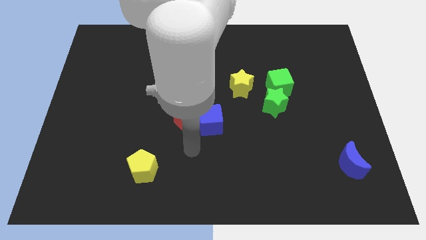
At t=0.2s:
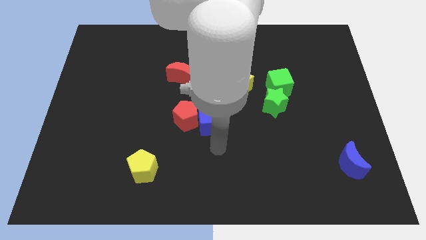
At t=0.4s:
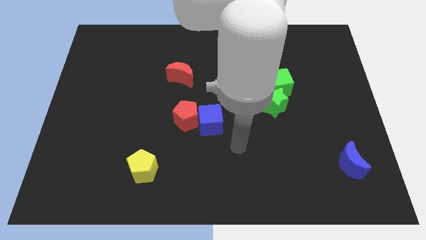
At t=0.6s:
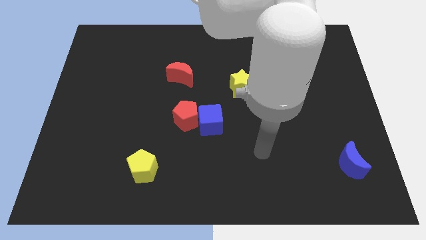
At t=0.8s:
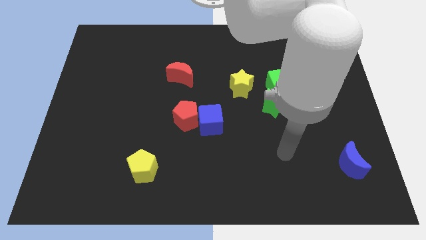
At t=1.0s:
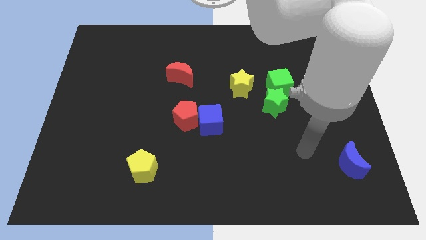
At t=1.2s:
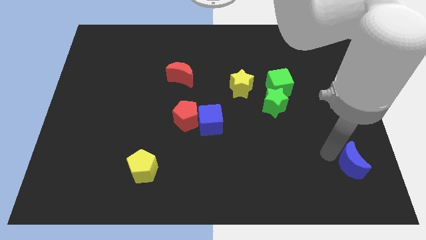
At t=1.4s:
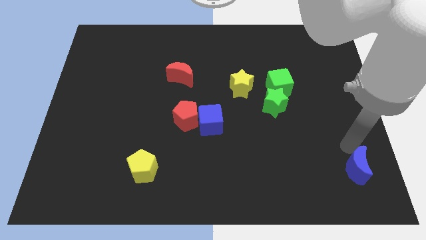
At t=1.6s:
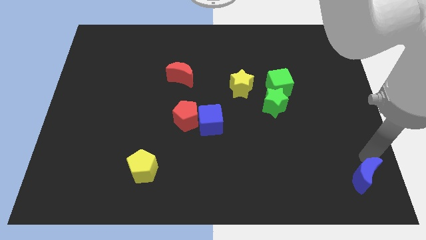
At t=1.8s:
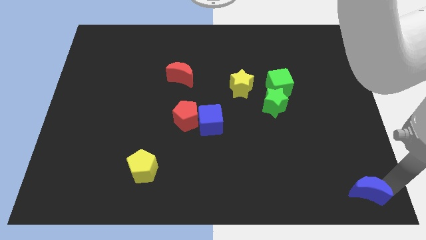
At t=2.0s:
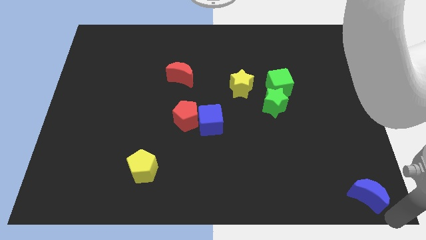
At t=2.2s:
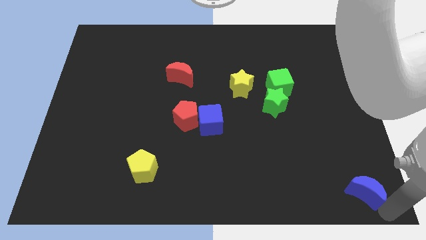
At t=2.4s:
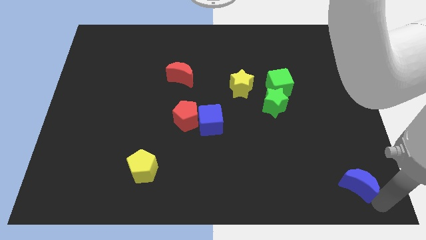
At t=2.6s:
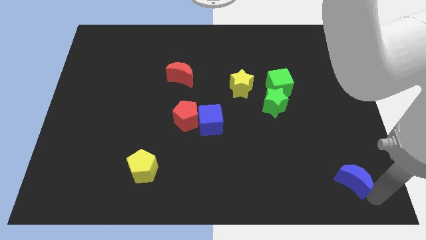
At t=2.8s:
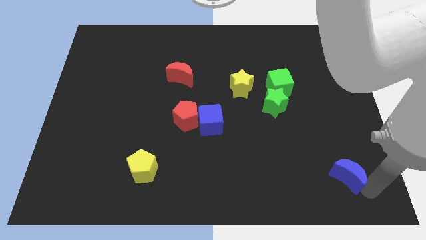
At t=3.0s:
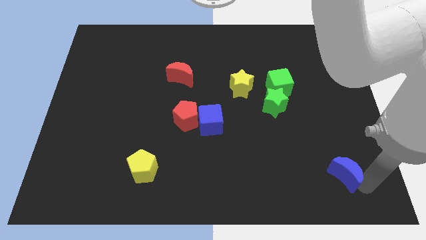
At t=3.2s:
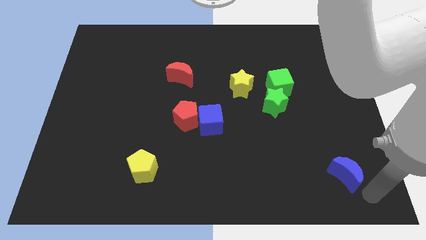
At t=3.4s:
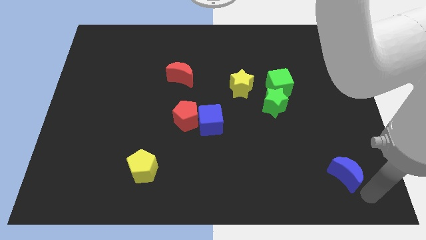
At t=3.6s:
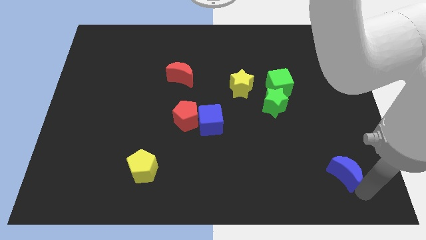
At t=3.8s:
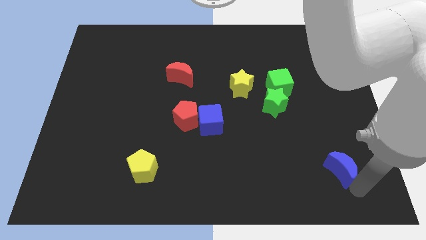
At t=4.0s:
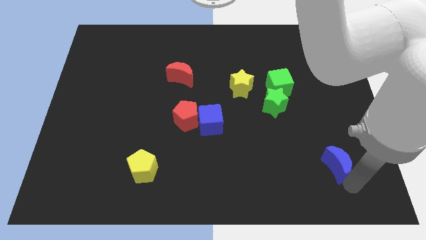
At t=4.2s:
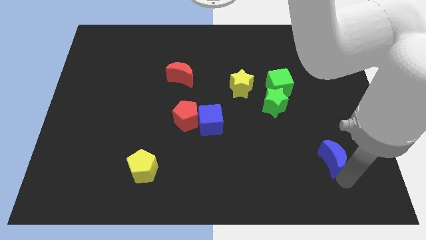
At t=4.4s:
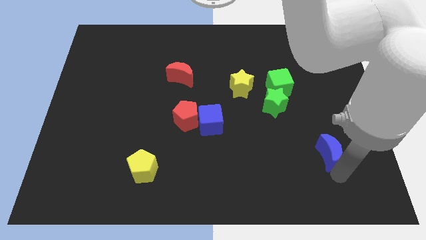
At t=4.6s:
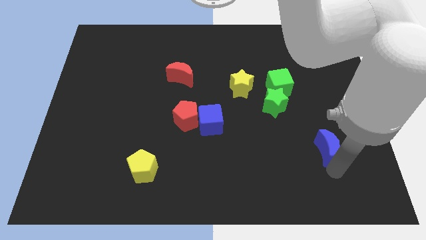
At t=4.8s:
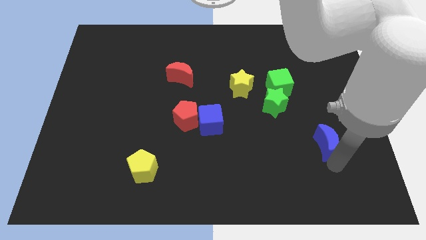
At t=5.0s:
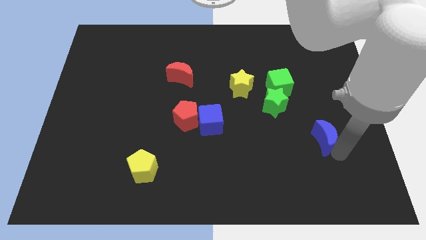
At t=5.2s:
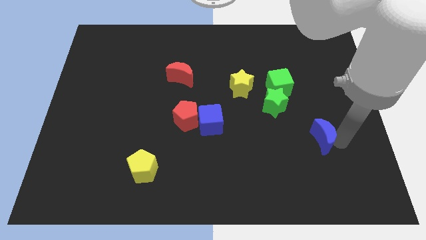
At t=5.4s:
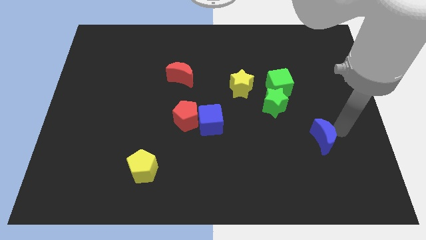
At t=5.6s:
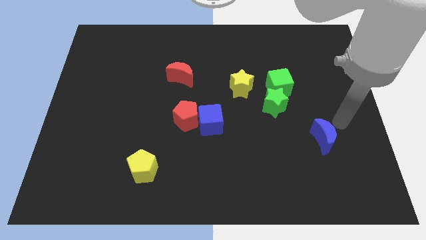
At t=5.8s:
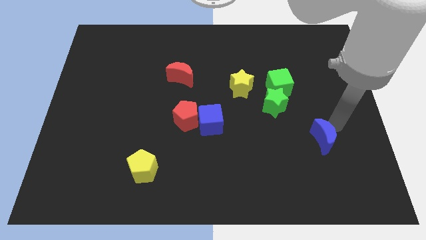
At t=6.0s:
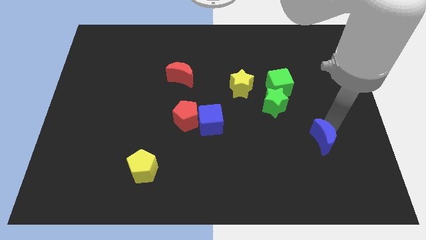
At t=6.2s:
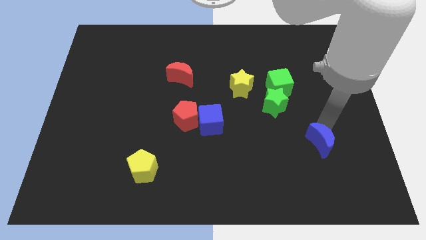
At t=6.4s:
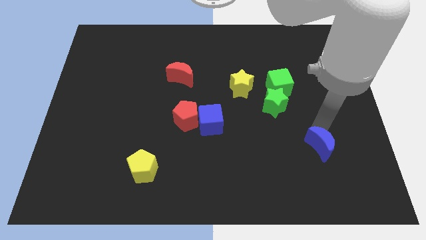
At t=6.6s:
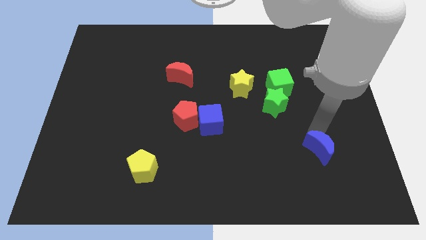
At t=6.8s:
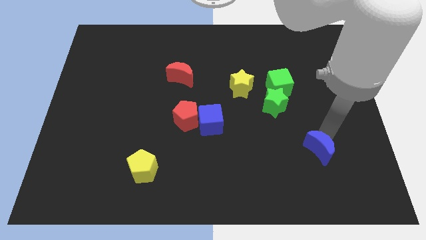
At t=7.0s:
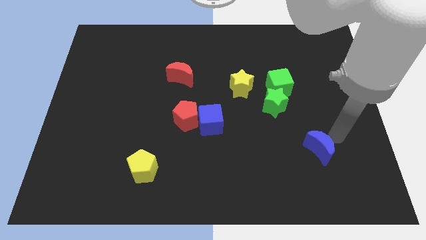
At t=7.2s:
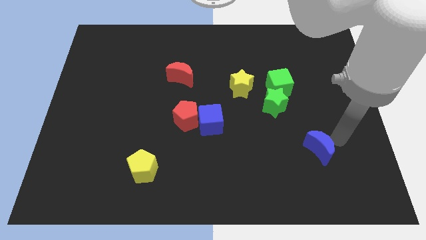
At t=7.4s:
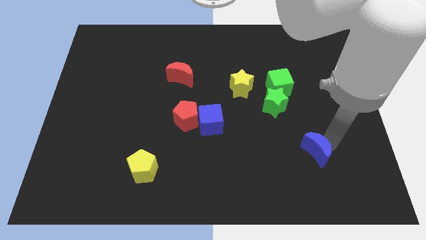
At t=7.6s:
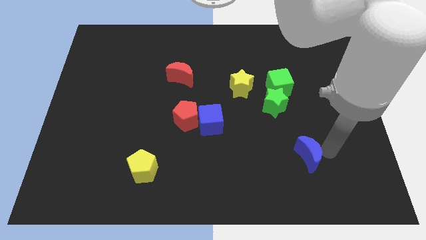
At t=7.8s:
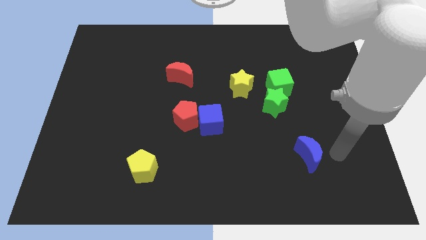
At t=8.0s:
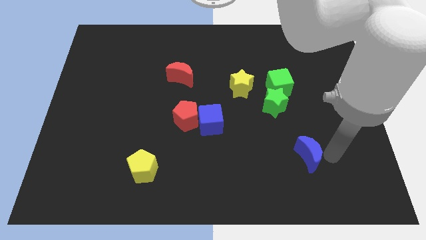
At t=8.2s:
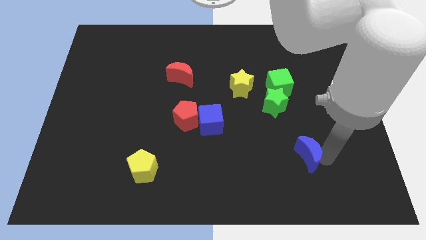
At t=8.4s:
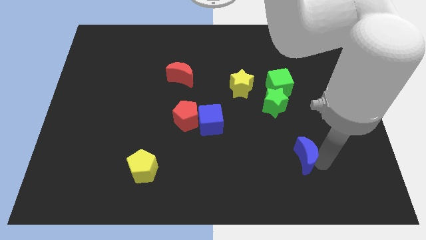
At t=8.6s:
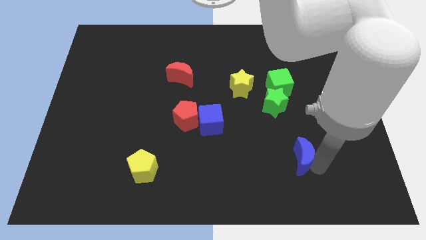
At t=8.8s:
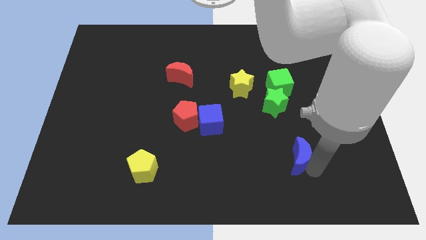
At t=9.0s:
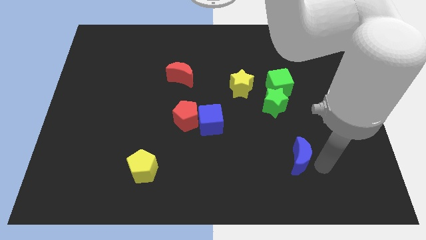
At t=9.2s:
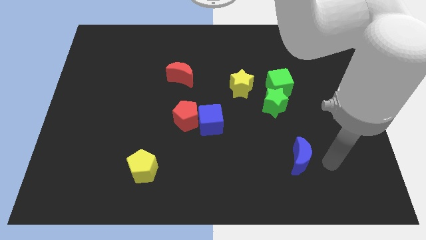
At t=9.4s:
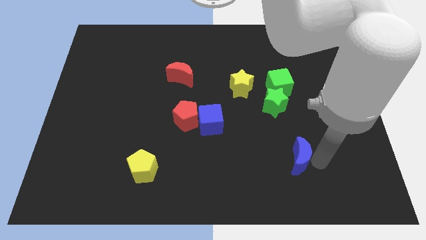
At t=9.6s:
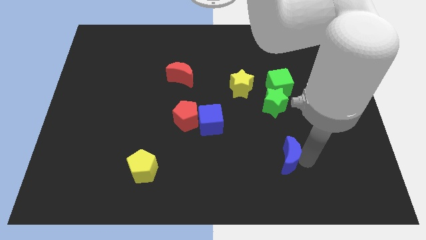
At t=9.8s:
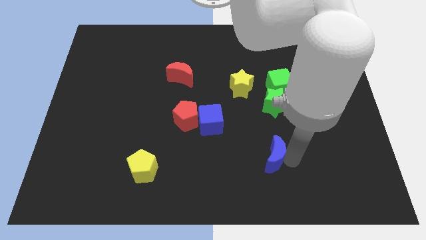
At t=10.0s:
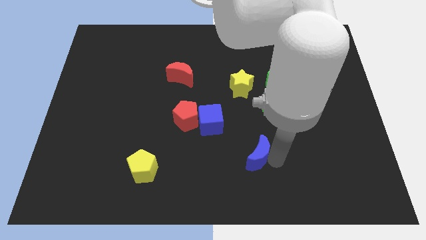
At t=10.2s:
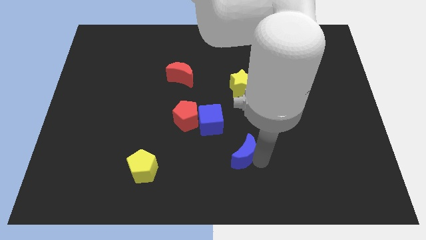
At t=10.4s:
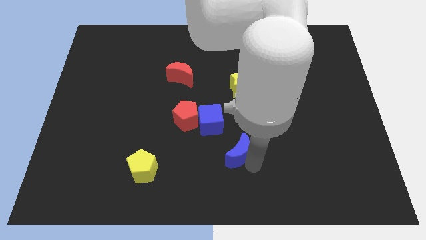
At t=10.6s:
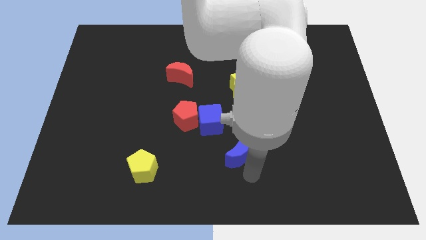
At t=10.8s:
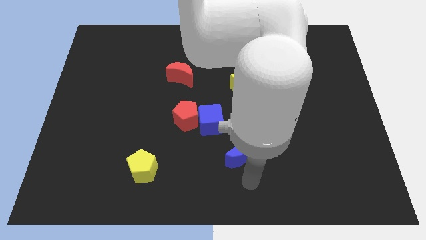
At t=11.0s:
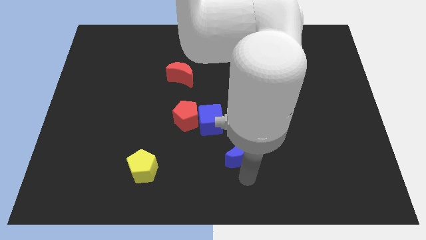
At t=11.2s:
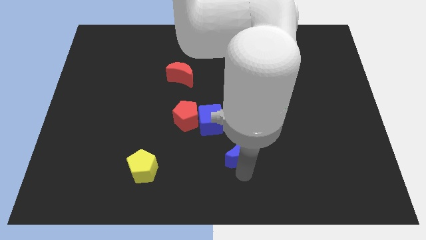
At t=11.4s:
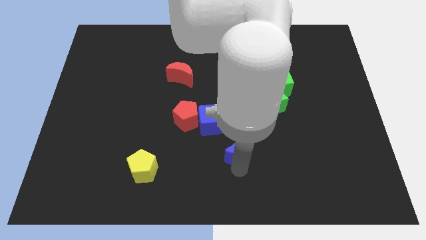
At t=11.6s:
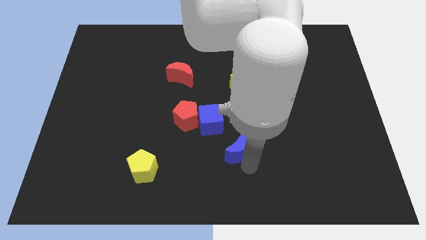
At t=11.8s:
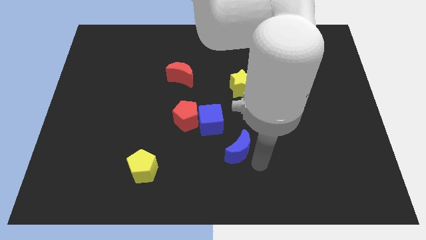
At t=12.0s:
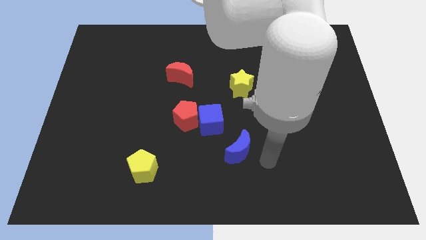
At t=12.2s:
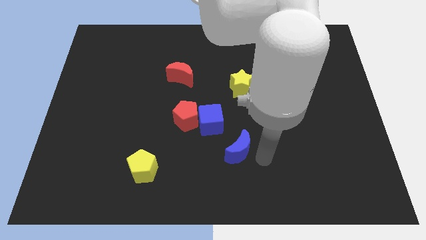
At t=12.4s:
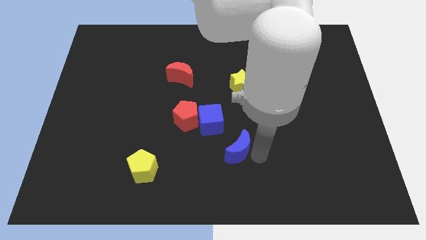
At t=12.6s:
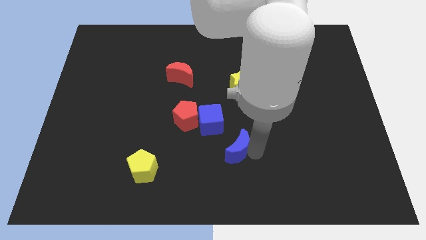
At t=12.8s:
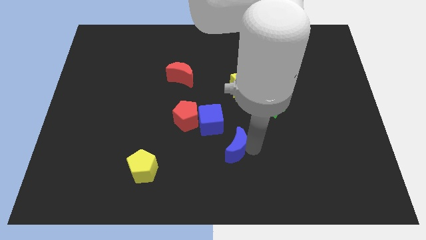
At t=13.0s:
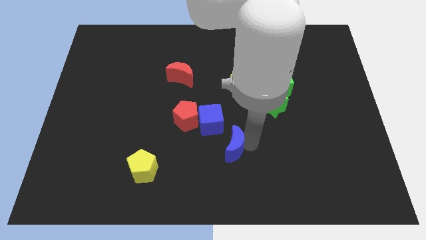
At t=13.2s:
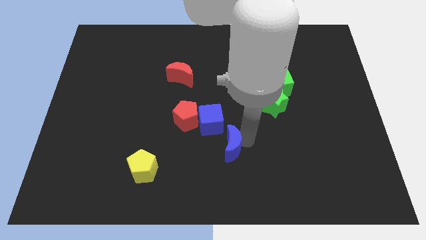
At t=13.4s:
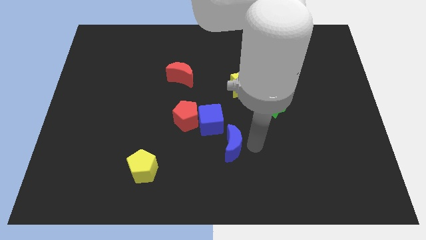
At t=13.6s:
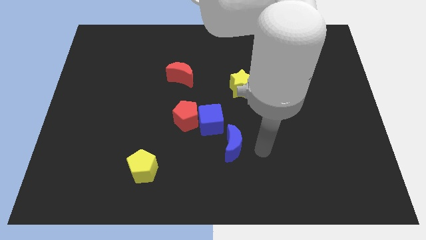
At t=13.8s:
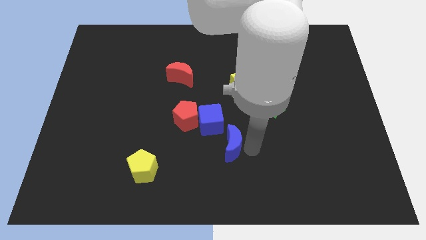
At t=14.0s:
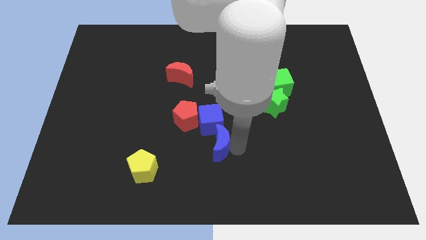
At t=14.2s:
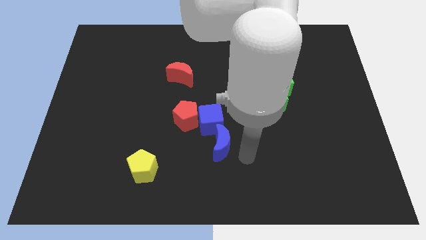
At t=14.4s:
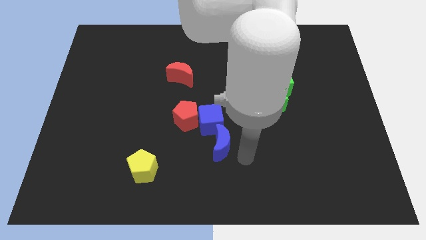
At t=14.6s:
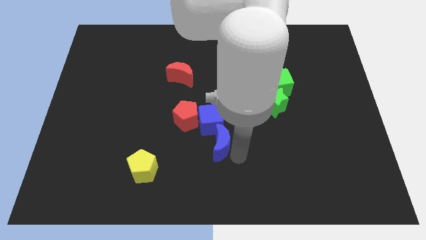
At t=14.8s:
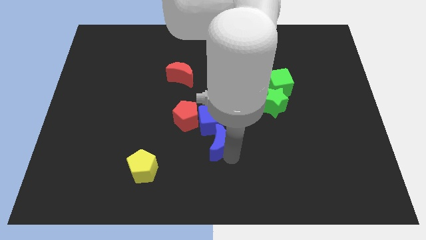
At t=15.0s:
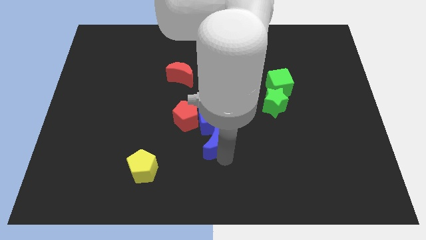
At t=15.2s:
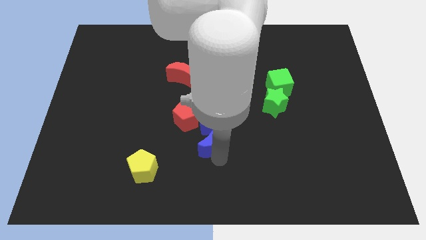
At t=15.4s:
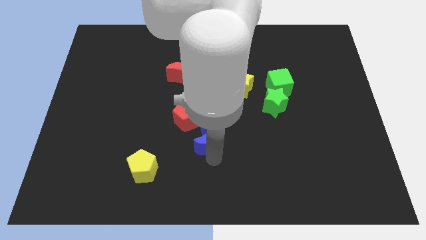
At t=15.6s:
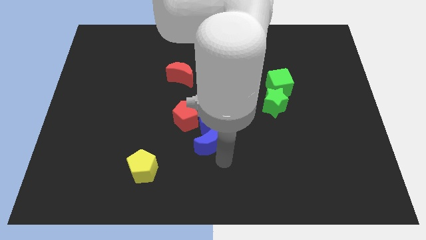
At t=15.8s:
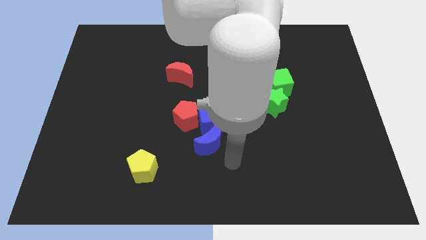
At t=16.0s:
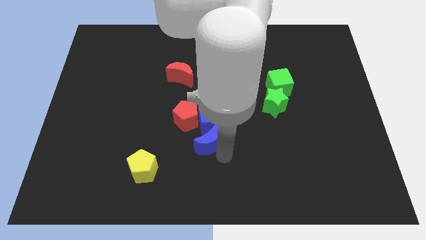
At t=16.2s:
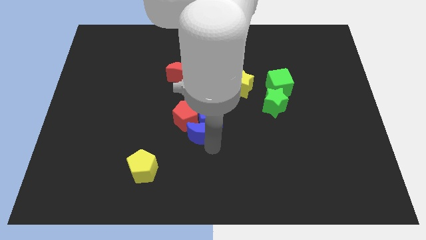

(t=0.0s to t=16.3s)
put the blue moon close to the red pentagon
